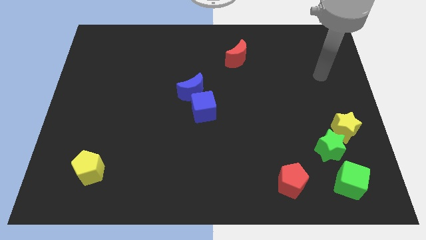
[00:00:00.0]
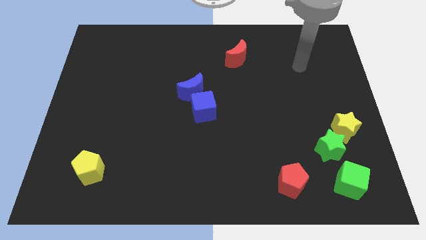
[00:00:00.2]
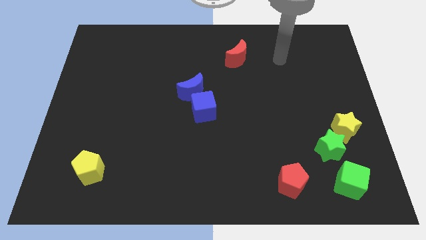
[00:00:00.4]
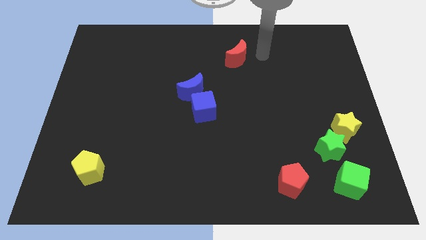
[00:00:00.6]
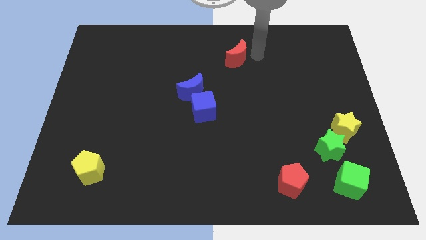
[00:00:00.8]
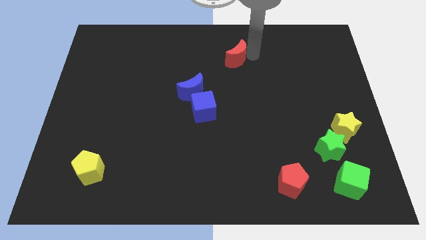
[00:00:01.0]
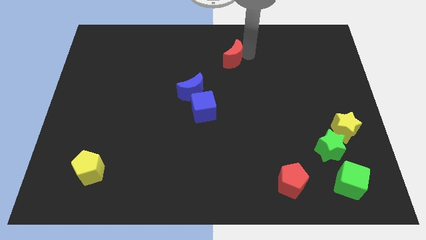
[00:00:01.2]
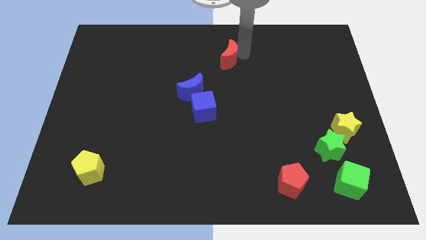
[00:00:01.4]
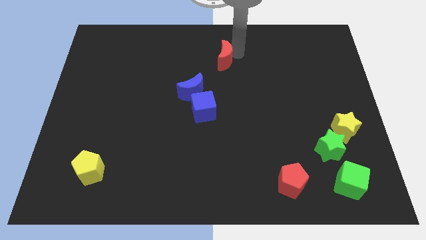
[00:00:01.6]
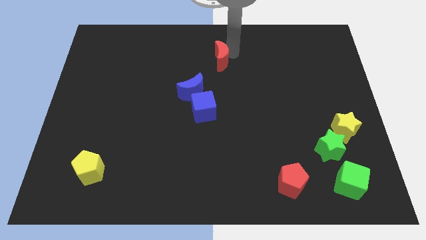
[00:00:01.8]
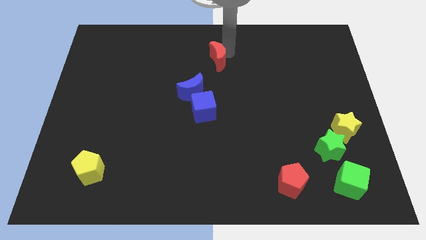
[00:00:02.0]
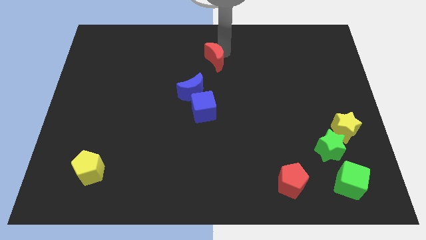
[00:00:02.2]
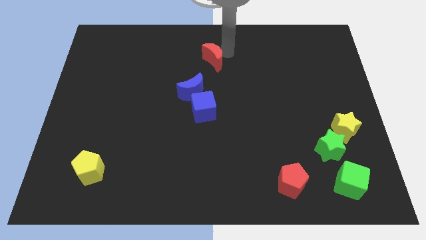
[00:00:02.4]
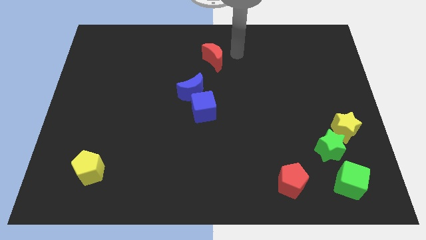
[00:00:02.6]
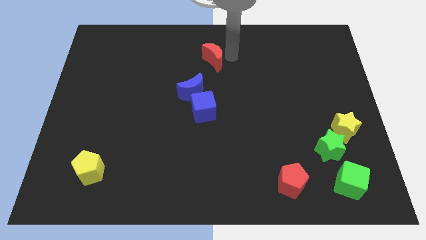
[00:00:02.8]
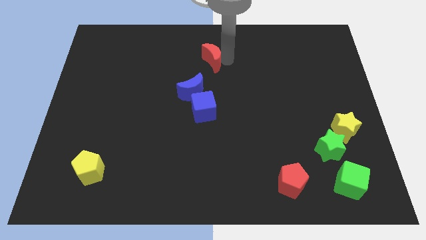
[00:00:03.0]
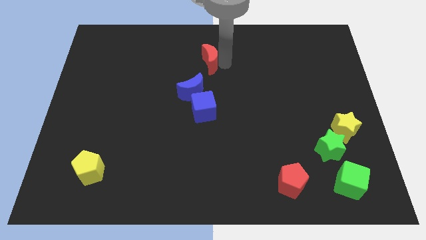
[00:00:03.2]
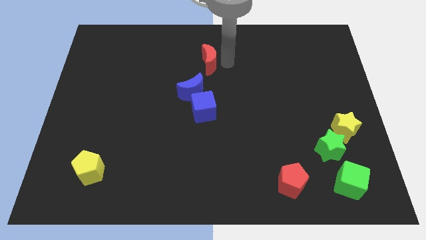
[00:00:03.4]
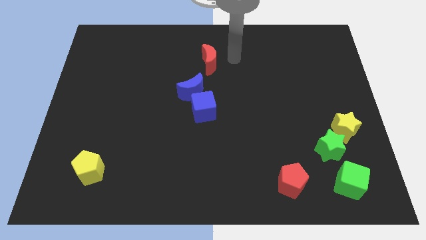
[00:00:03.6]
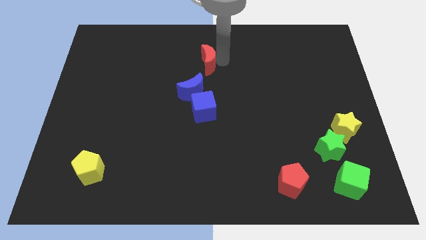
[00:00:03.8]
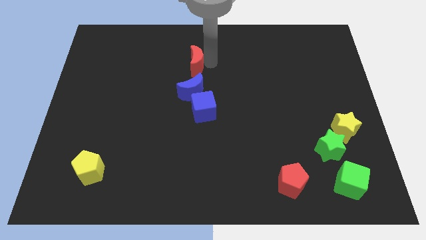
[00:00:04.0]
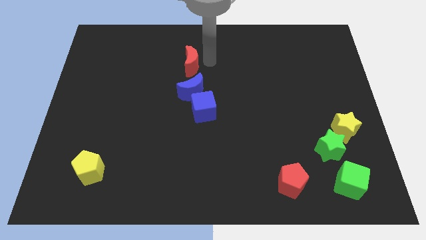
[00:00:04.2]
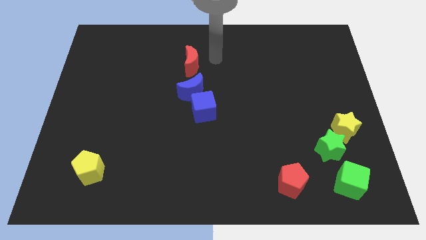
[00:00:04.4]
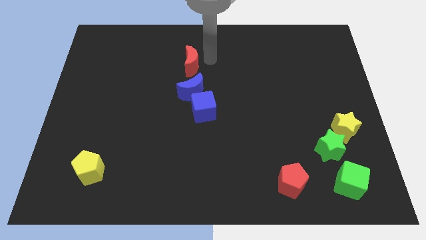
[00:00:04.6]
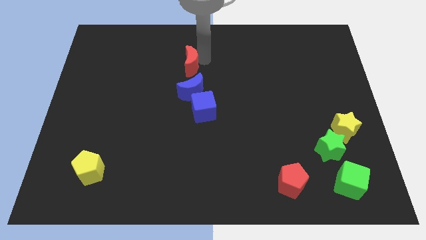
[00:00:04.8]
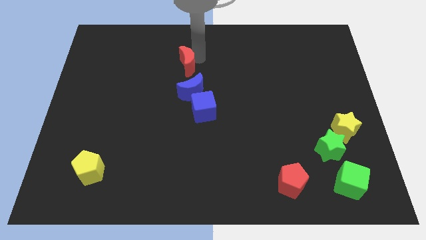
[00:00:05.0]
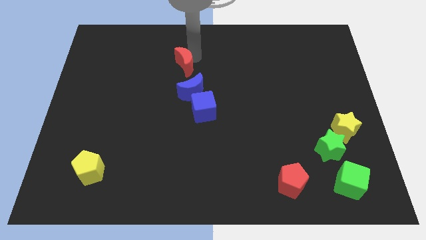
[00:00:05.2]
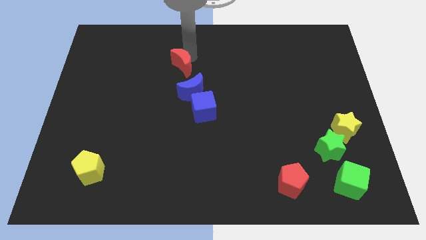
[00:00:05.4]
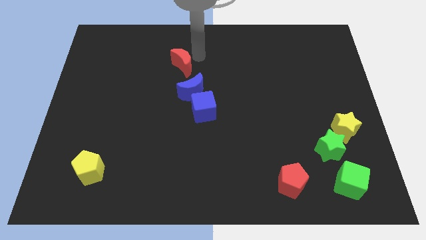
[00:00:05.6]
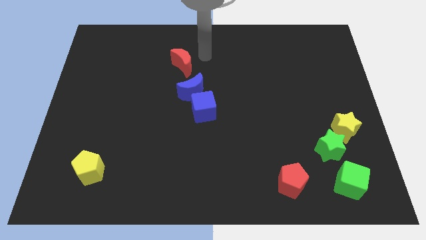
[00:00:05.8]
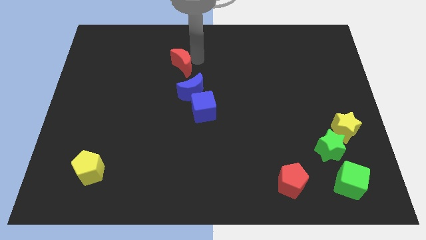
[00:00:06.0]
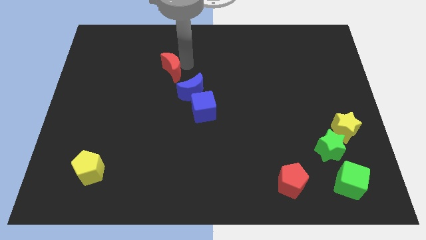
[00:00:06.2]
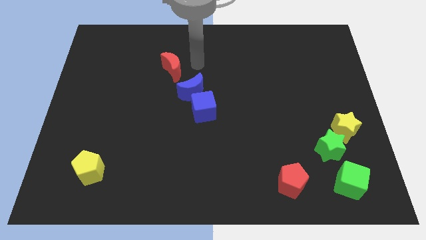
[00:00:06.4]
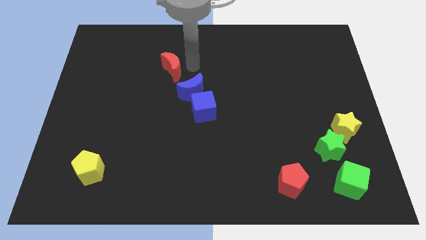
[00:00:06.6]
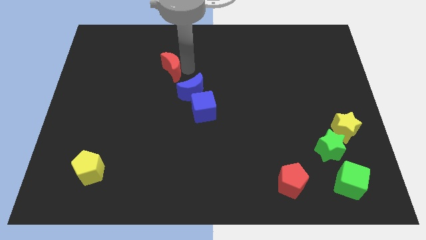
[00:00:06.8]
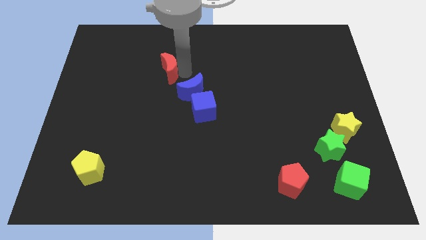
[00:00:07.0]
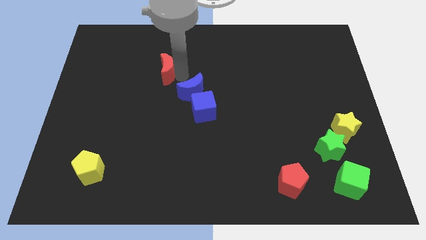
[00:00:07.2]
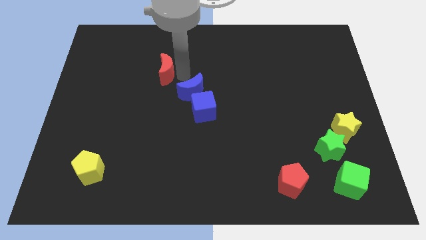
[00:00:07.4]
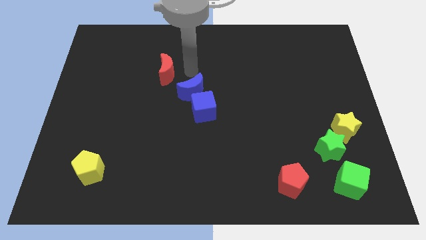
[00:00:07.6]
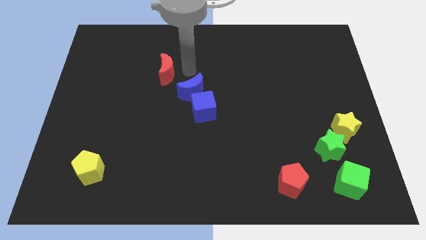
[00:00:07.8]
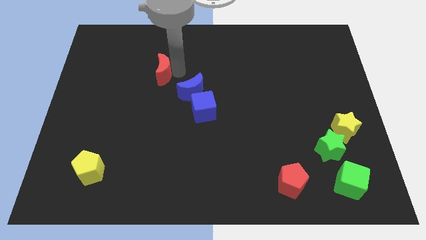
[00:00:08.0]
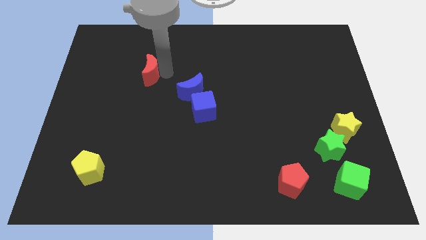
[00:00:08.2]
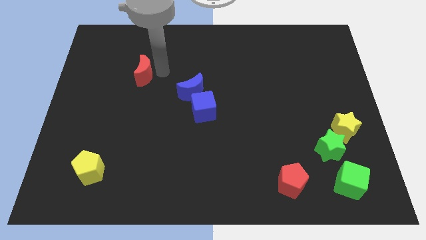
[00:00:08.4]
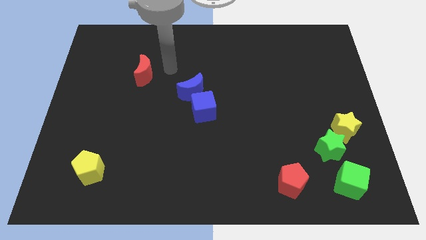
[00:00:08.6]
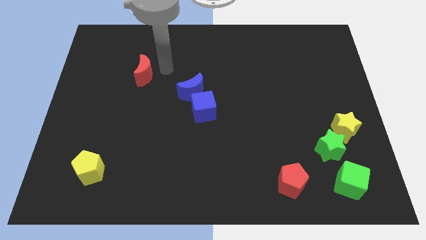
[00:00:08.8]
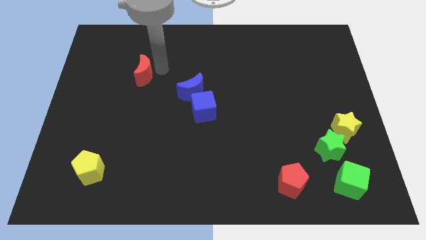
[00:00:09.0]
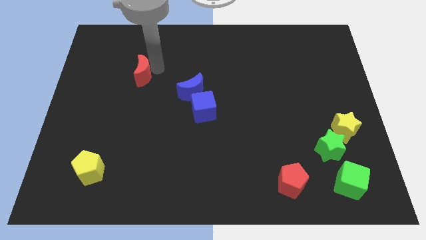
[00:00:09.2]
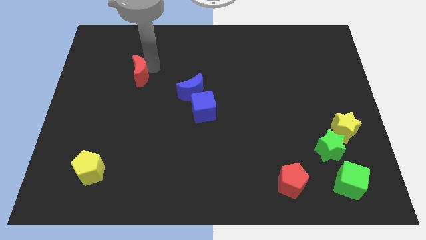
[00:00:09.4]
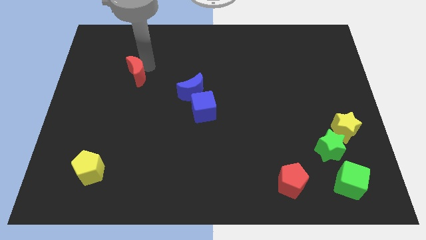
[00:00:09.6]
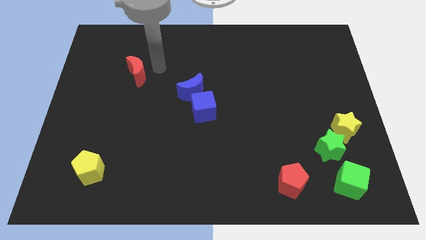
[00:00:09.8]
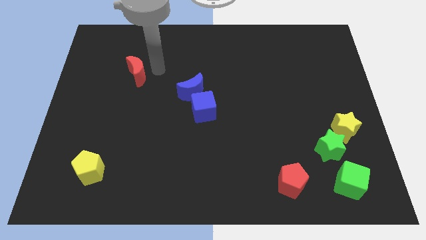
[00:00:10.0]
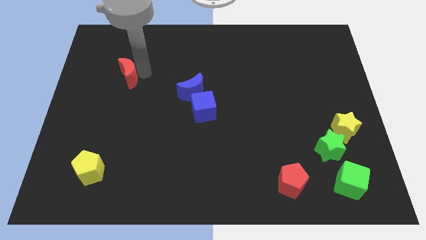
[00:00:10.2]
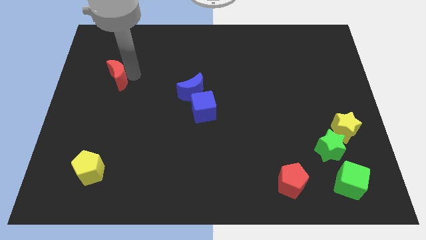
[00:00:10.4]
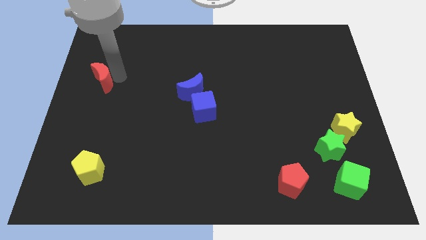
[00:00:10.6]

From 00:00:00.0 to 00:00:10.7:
push the red moon to the left side of the board

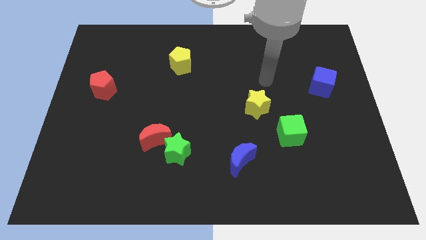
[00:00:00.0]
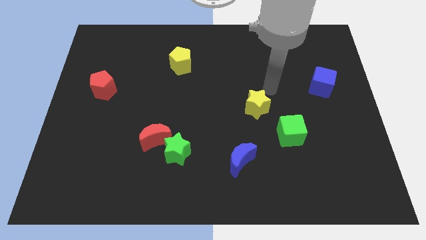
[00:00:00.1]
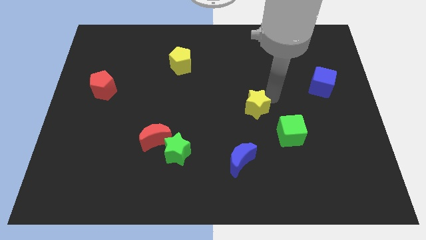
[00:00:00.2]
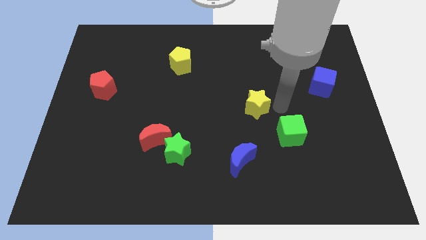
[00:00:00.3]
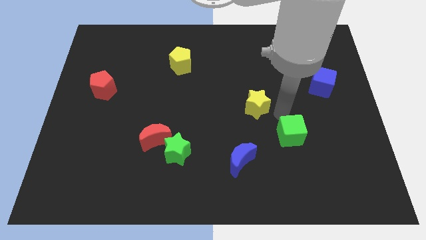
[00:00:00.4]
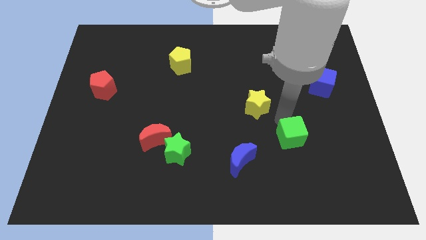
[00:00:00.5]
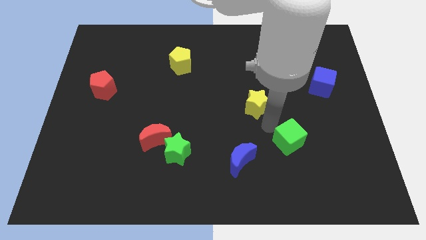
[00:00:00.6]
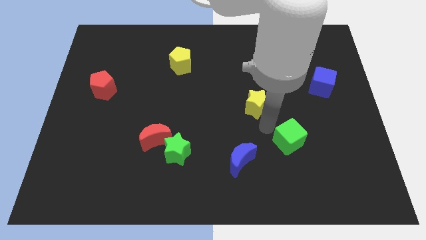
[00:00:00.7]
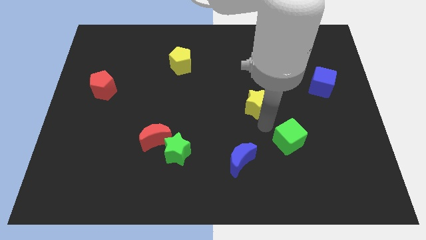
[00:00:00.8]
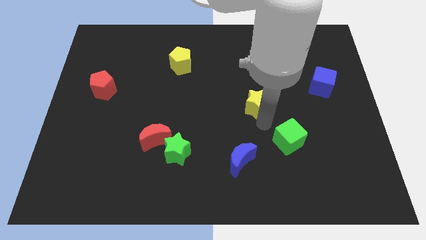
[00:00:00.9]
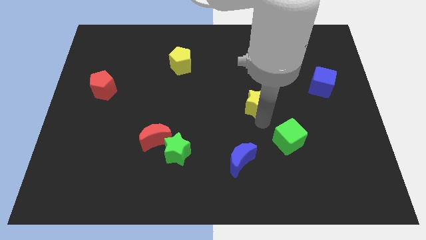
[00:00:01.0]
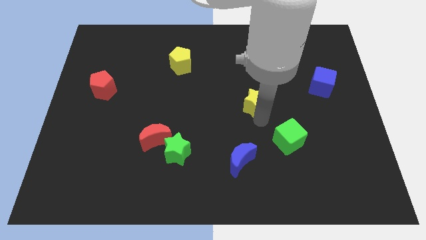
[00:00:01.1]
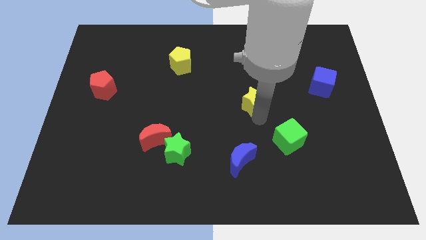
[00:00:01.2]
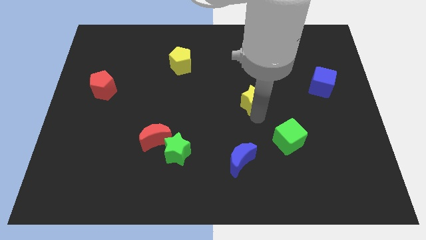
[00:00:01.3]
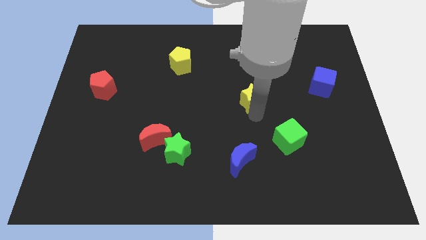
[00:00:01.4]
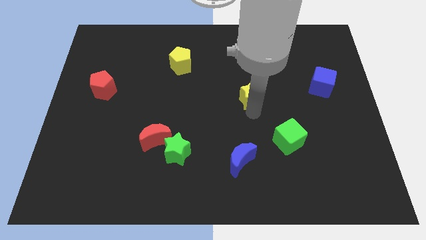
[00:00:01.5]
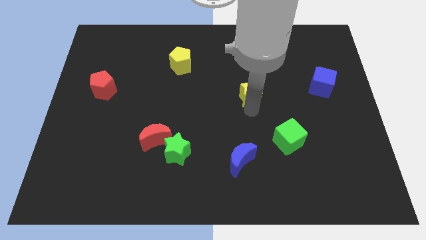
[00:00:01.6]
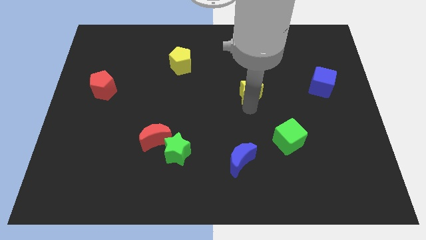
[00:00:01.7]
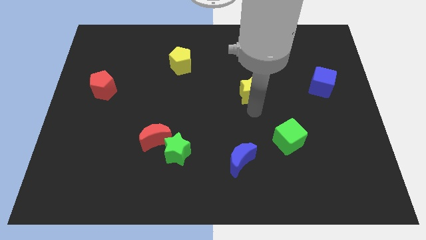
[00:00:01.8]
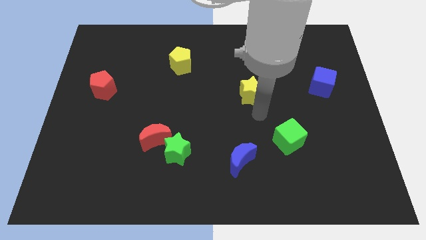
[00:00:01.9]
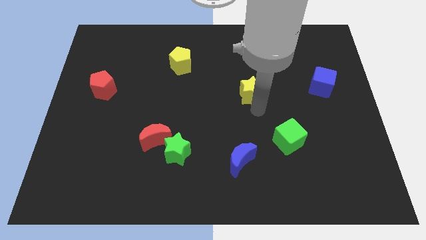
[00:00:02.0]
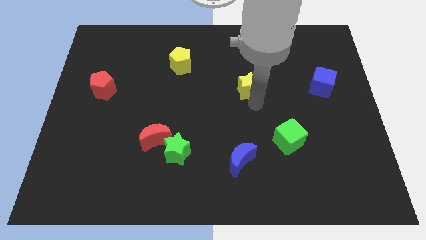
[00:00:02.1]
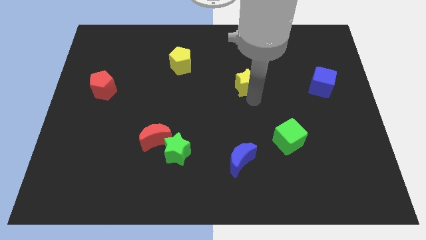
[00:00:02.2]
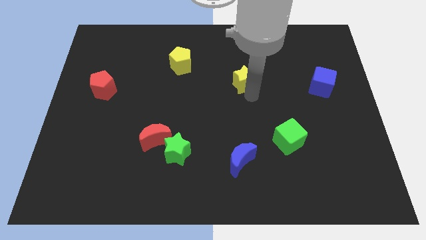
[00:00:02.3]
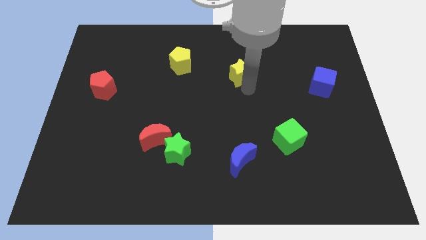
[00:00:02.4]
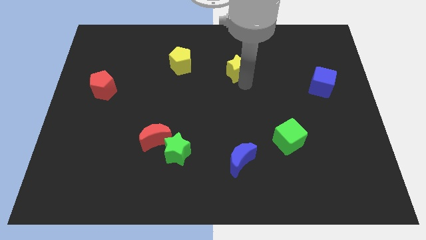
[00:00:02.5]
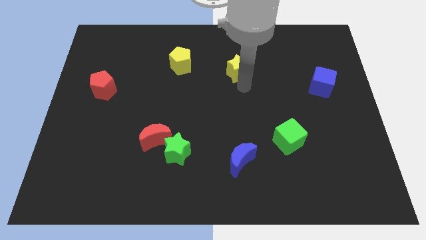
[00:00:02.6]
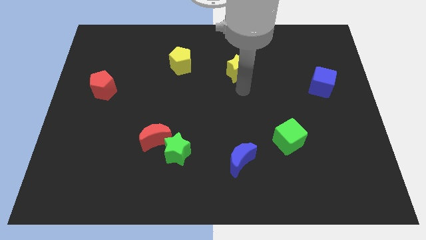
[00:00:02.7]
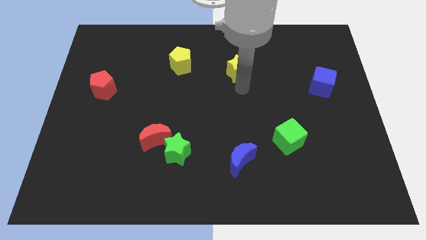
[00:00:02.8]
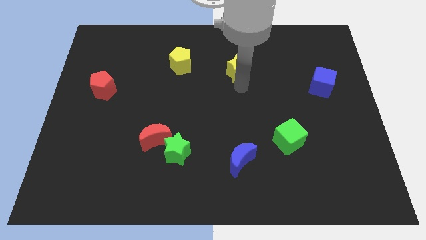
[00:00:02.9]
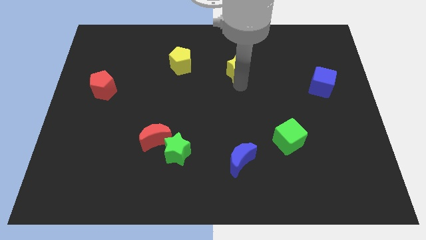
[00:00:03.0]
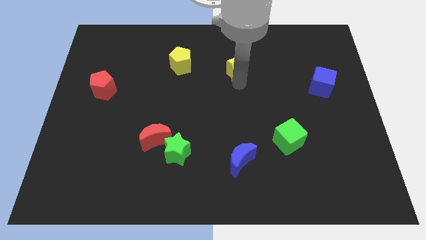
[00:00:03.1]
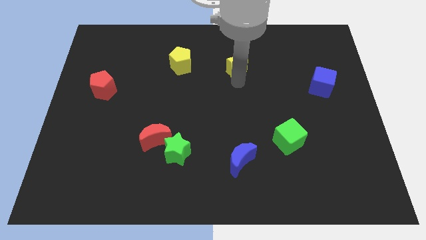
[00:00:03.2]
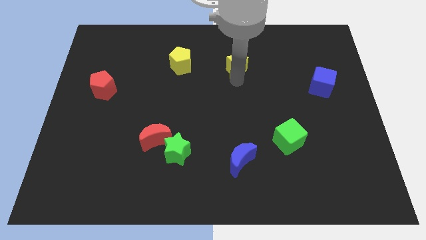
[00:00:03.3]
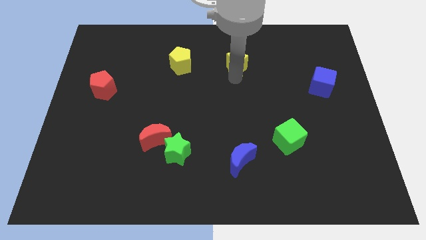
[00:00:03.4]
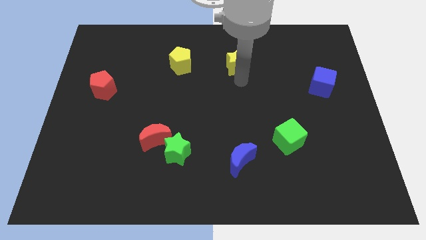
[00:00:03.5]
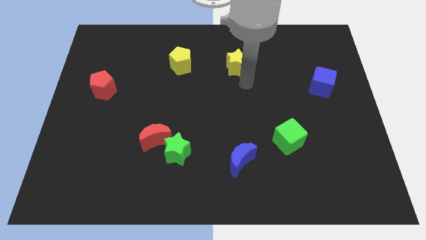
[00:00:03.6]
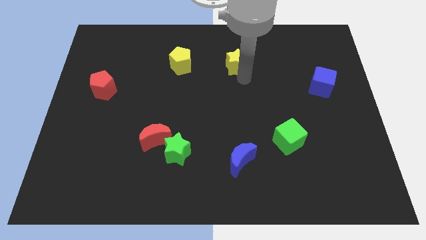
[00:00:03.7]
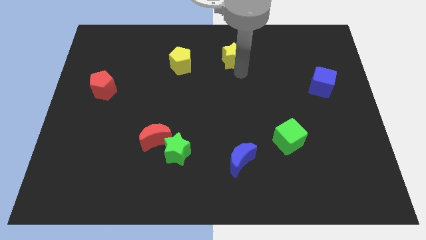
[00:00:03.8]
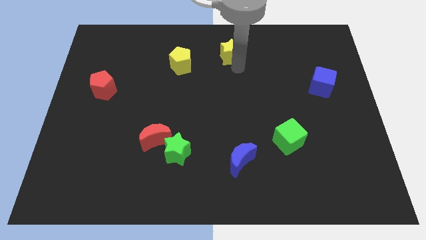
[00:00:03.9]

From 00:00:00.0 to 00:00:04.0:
put the yellow star to the top side
